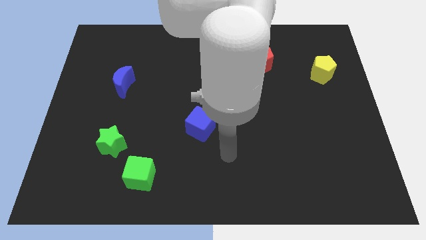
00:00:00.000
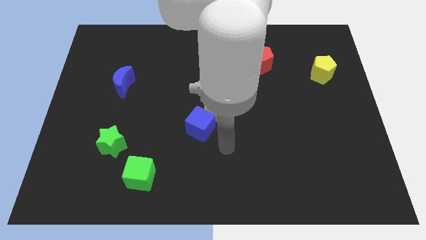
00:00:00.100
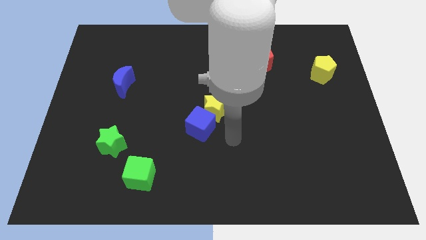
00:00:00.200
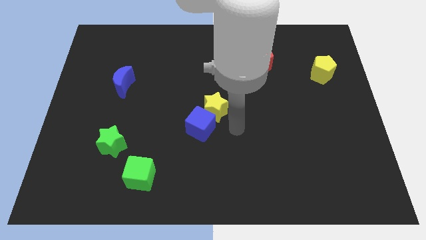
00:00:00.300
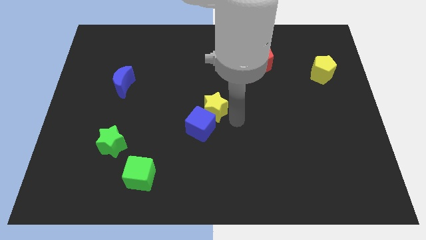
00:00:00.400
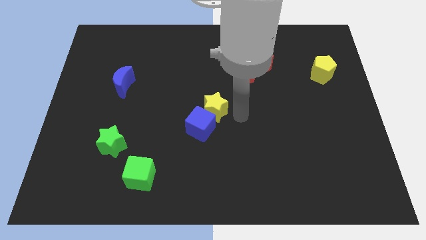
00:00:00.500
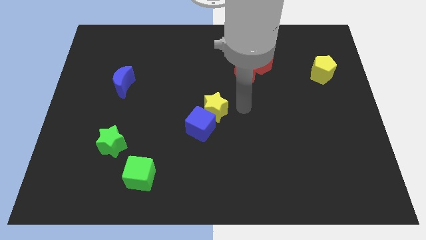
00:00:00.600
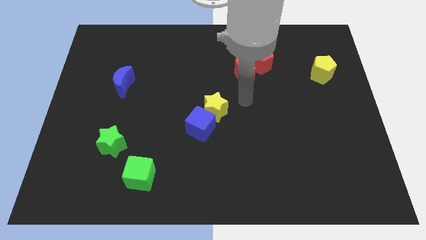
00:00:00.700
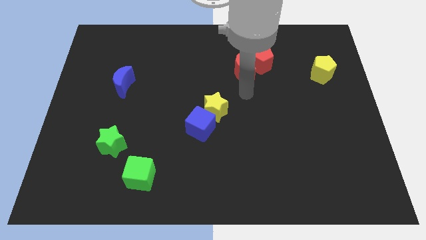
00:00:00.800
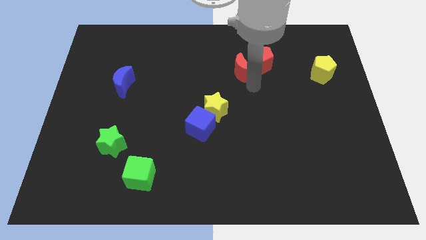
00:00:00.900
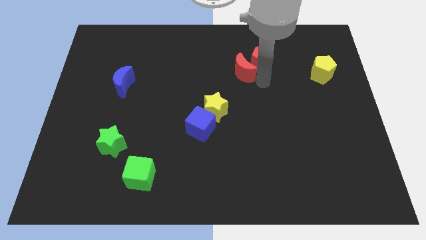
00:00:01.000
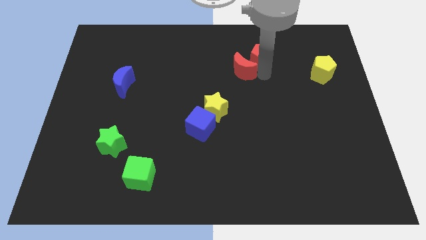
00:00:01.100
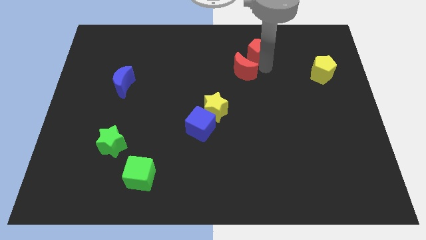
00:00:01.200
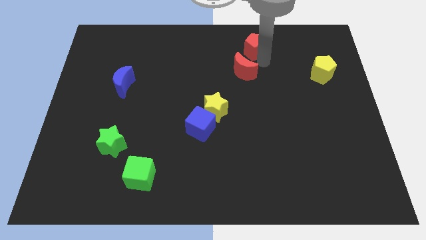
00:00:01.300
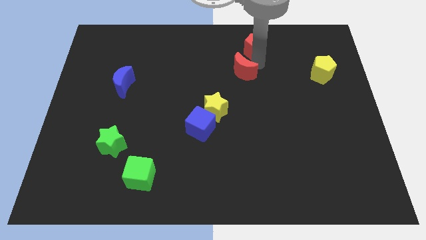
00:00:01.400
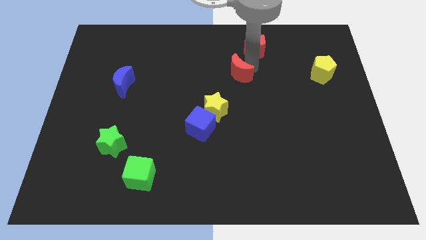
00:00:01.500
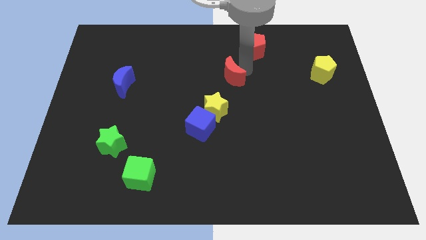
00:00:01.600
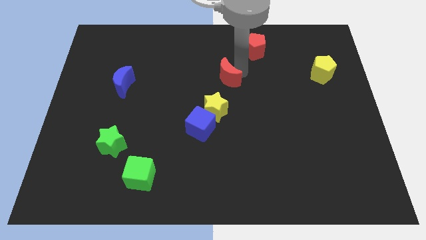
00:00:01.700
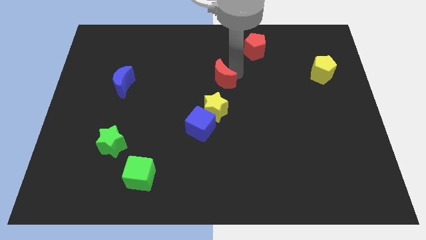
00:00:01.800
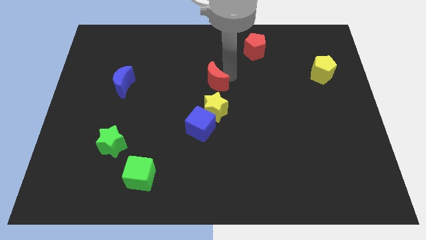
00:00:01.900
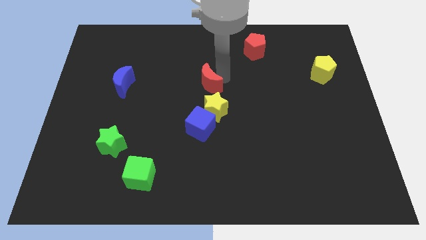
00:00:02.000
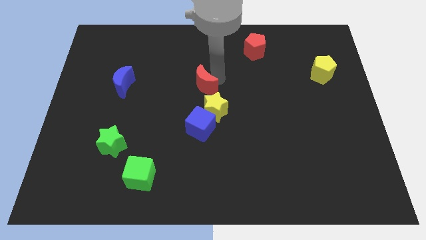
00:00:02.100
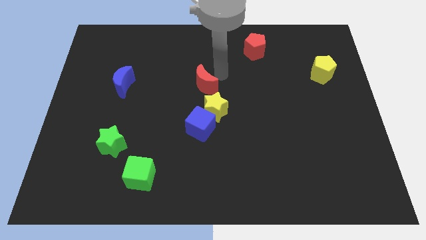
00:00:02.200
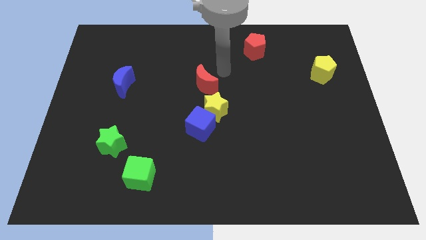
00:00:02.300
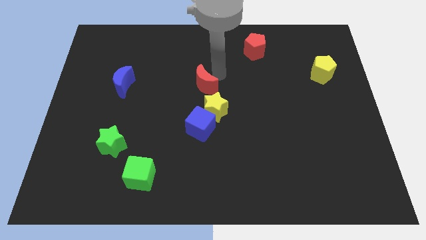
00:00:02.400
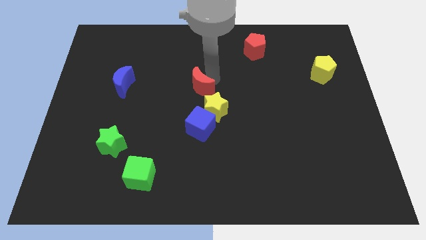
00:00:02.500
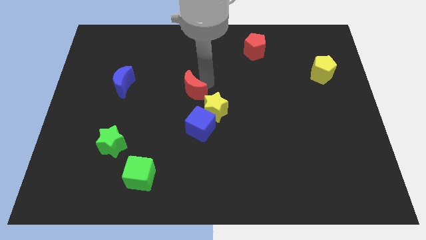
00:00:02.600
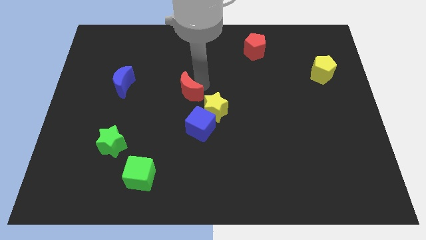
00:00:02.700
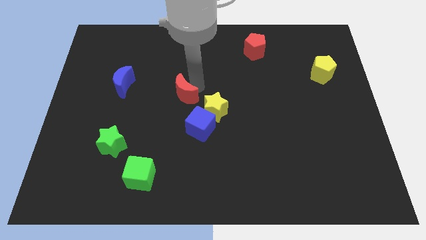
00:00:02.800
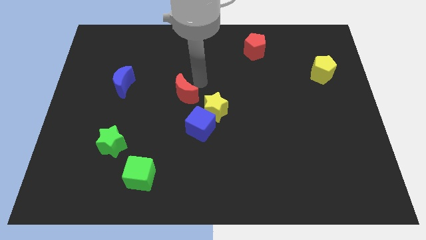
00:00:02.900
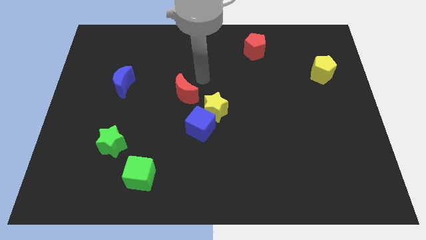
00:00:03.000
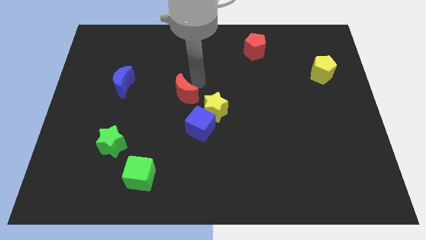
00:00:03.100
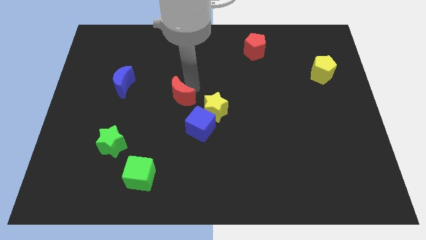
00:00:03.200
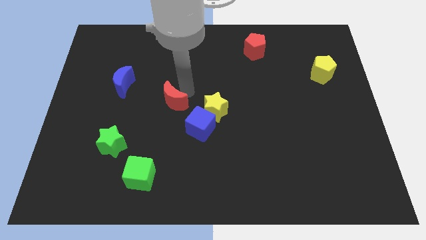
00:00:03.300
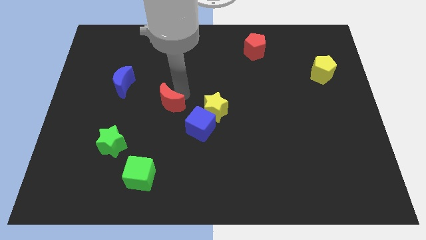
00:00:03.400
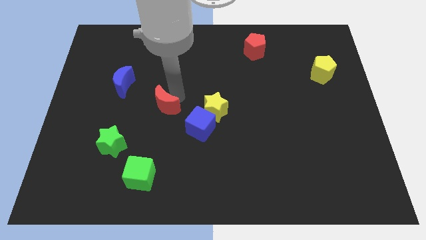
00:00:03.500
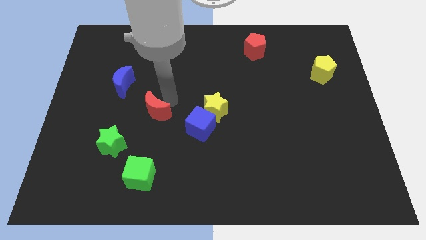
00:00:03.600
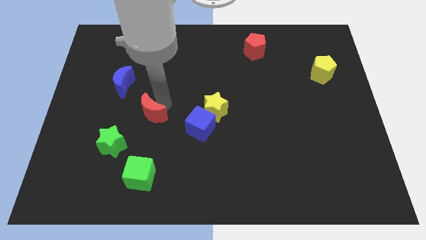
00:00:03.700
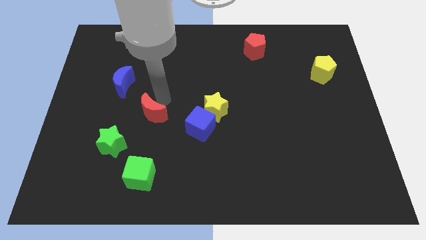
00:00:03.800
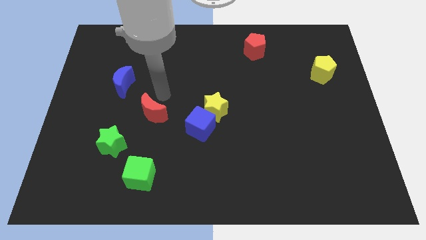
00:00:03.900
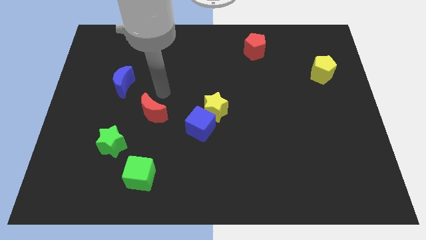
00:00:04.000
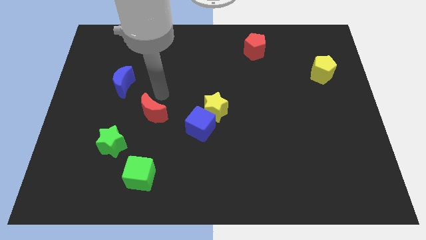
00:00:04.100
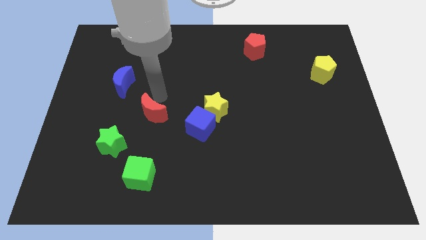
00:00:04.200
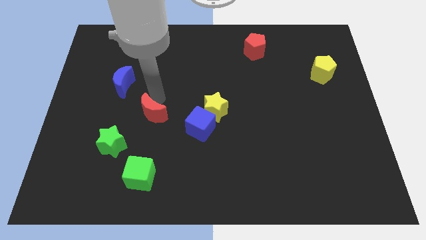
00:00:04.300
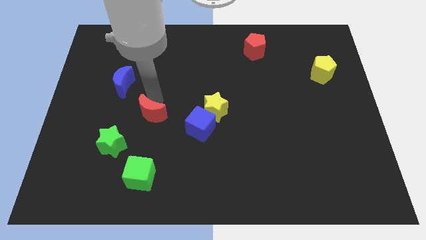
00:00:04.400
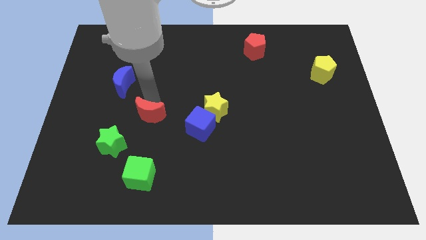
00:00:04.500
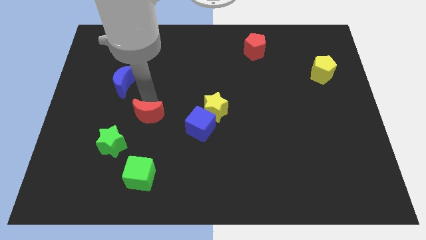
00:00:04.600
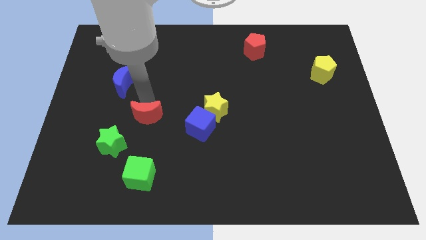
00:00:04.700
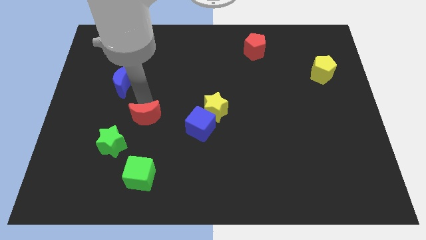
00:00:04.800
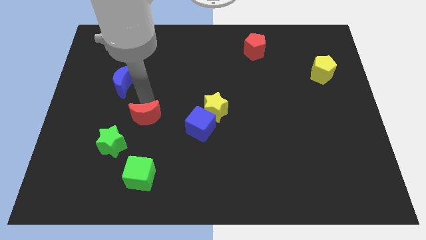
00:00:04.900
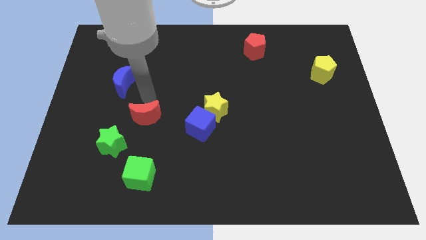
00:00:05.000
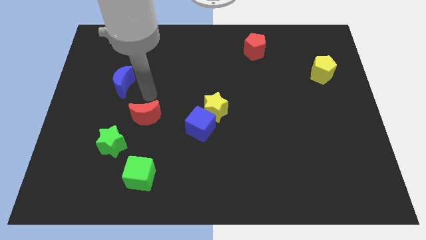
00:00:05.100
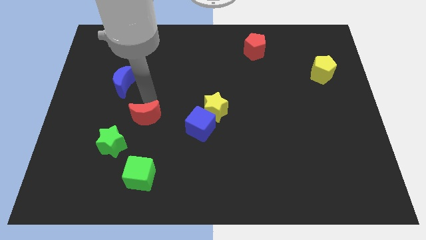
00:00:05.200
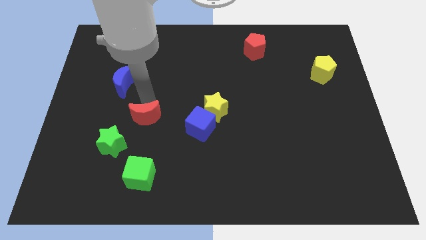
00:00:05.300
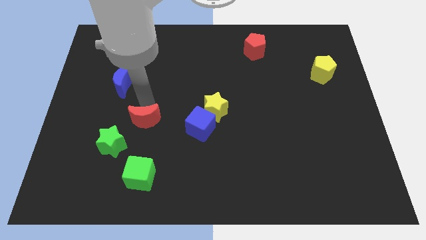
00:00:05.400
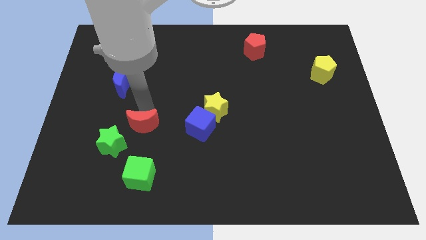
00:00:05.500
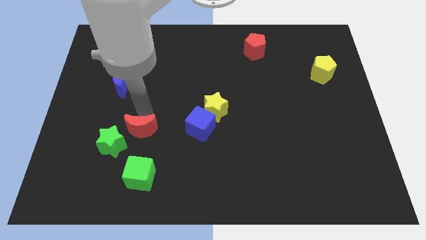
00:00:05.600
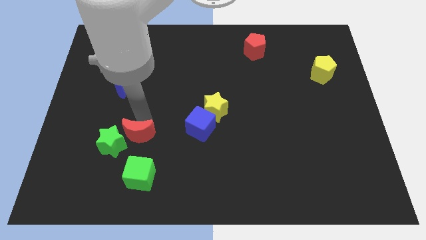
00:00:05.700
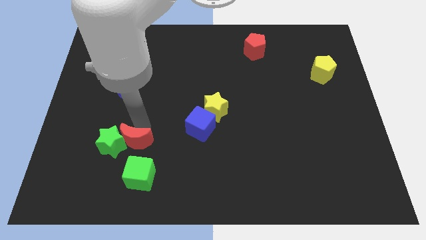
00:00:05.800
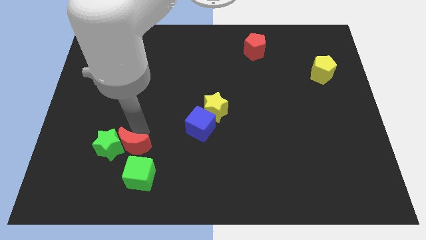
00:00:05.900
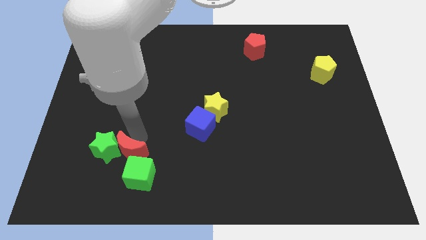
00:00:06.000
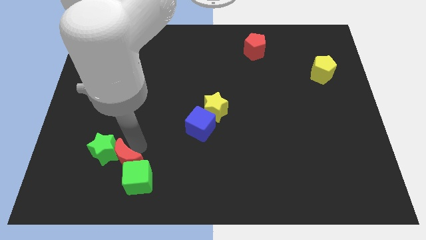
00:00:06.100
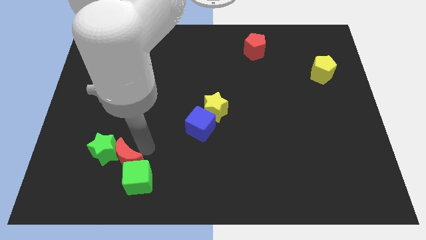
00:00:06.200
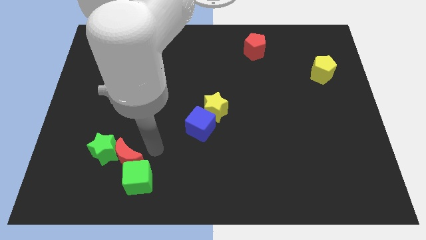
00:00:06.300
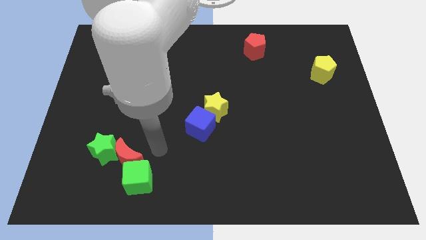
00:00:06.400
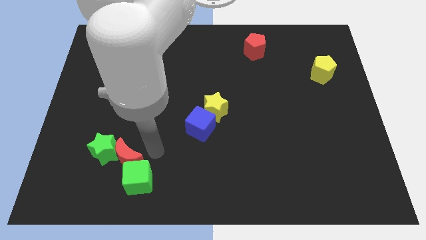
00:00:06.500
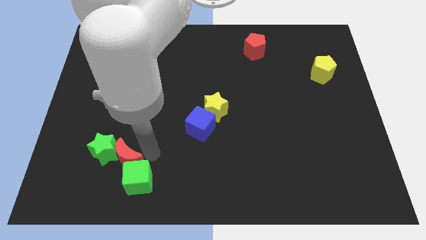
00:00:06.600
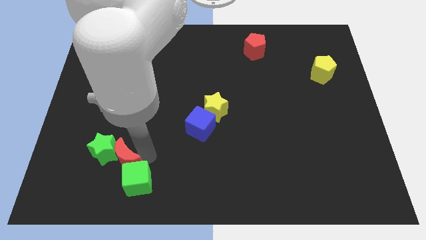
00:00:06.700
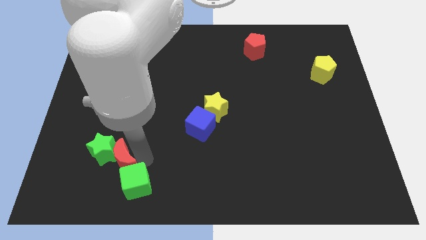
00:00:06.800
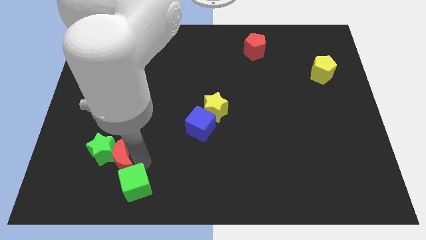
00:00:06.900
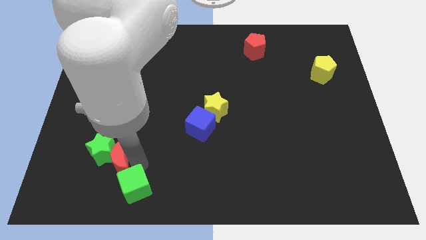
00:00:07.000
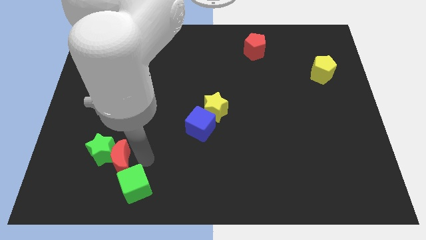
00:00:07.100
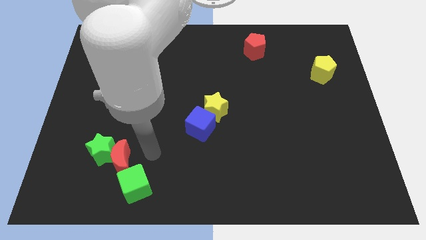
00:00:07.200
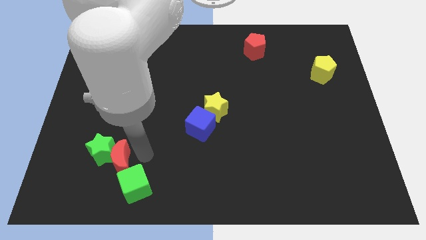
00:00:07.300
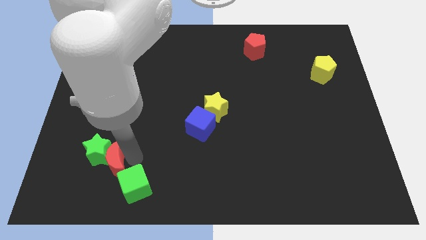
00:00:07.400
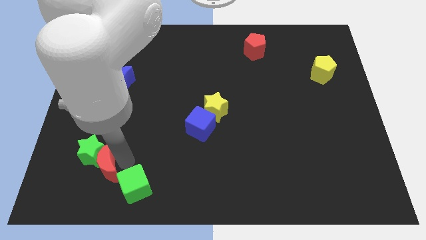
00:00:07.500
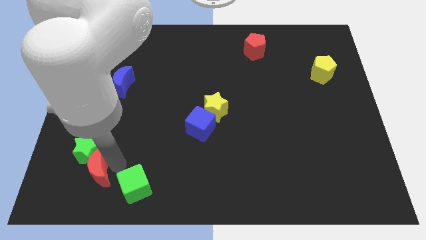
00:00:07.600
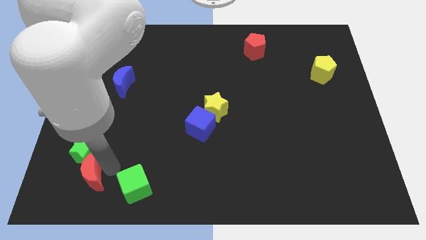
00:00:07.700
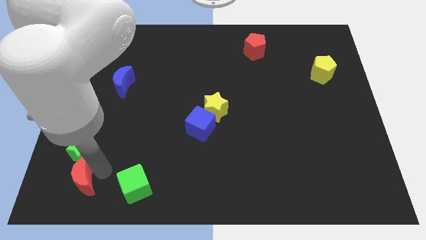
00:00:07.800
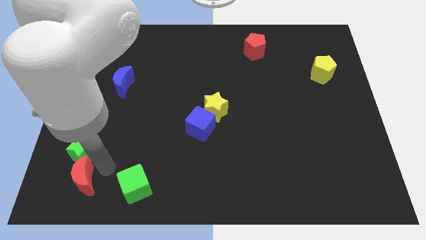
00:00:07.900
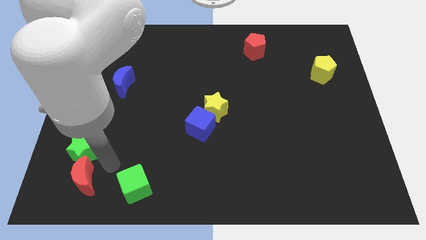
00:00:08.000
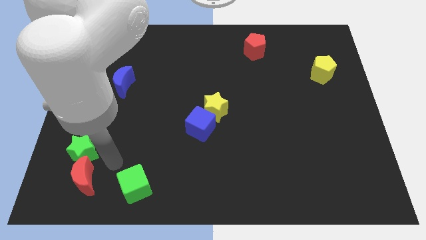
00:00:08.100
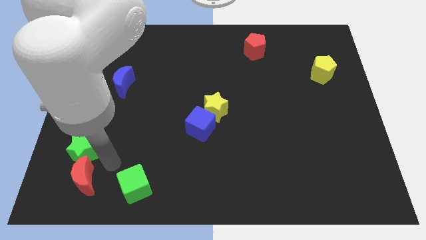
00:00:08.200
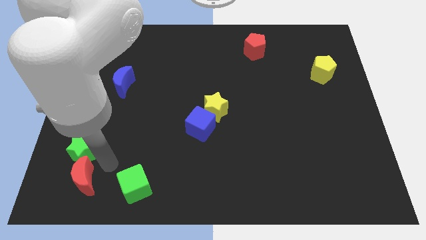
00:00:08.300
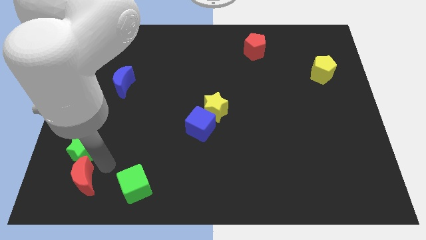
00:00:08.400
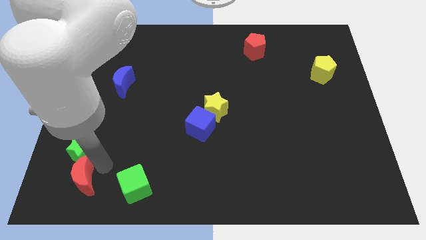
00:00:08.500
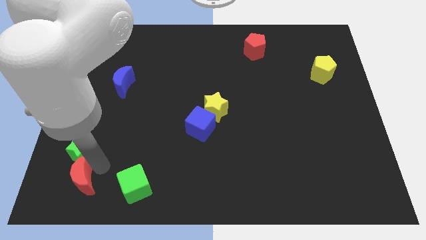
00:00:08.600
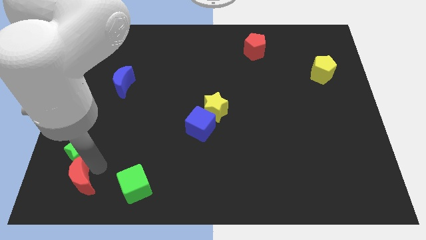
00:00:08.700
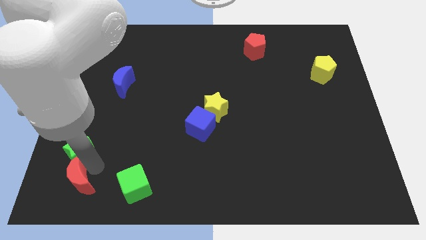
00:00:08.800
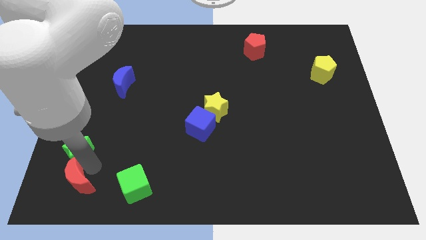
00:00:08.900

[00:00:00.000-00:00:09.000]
slide the red moon to the bottom left
